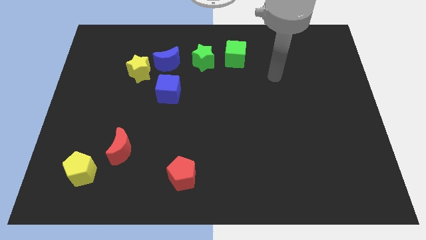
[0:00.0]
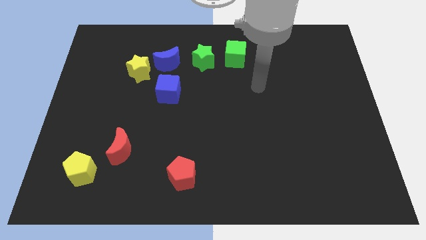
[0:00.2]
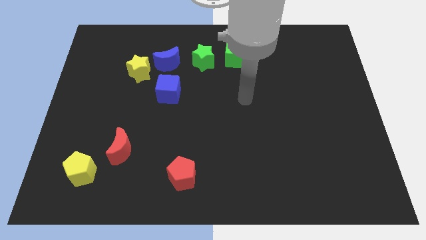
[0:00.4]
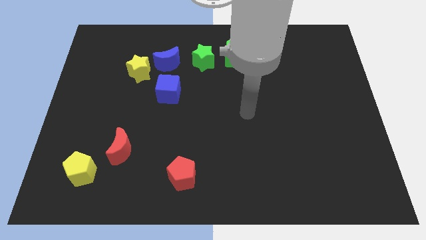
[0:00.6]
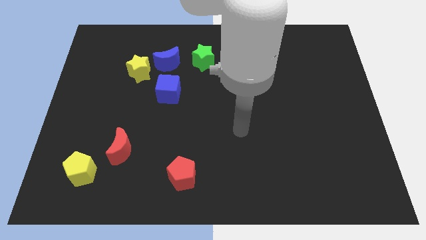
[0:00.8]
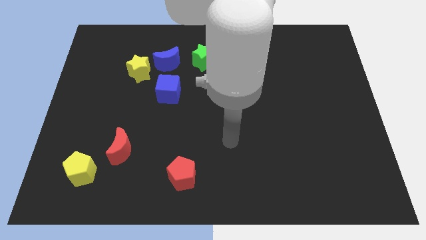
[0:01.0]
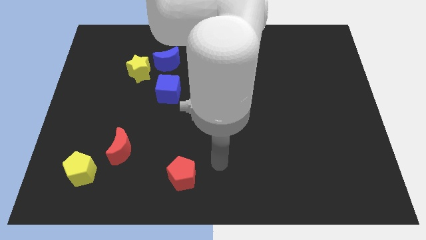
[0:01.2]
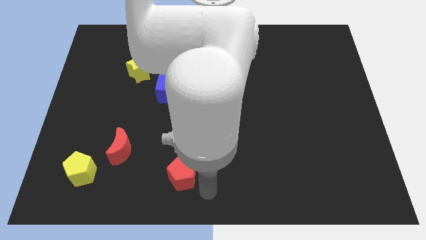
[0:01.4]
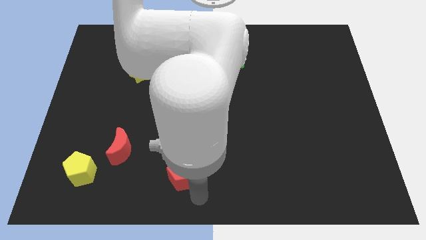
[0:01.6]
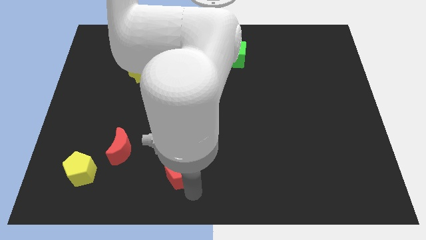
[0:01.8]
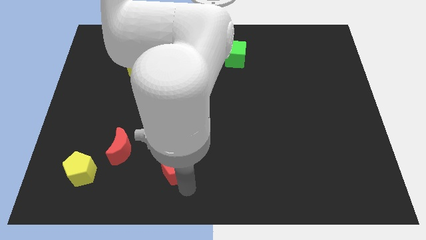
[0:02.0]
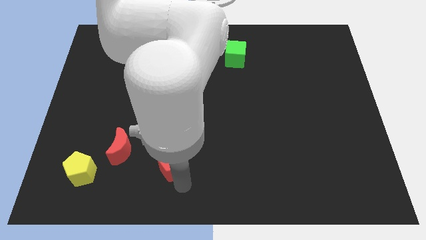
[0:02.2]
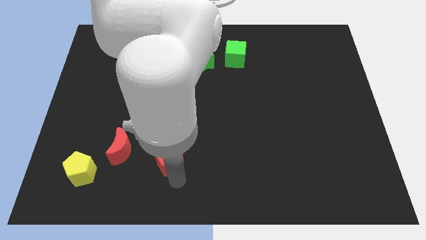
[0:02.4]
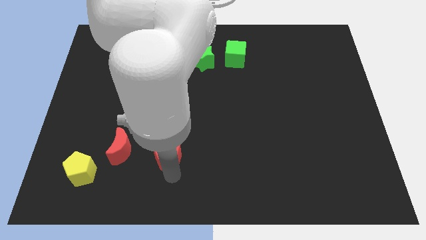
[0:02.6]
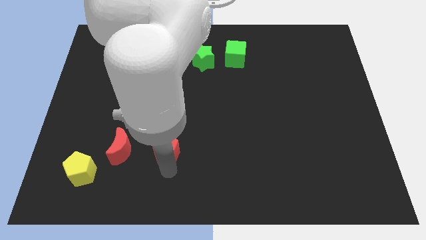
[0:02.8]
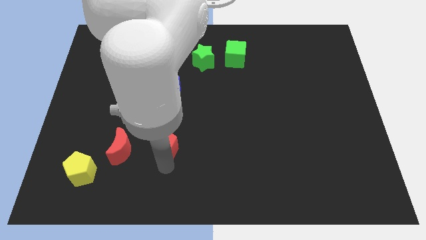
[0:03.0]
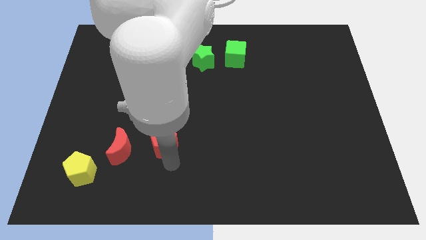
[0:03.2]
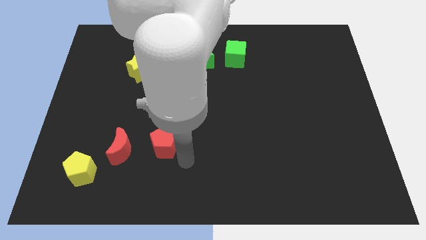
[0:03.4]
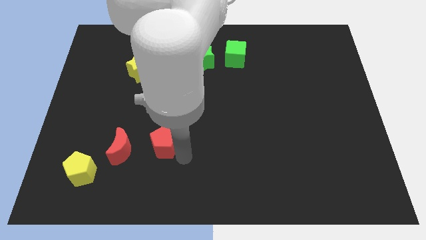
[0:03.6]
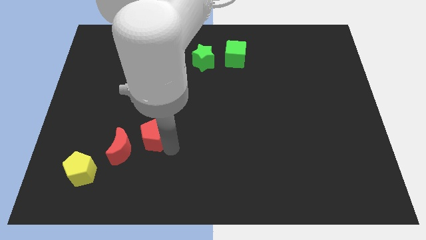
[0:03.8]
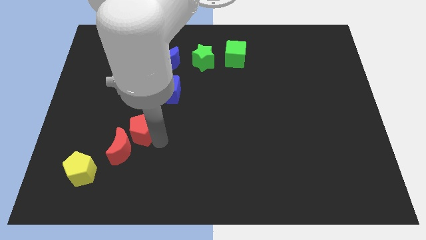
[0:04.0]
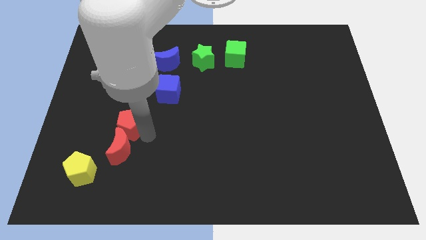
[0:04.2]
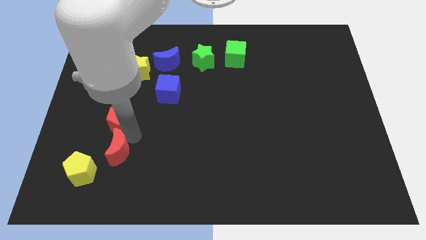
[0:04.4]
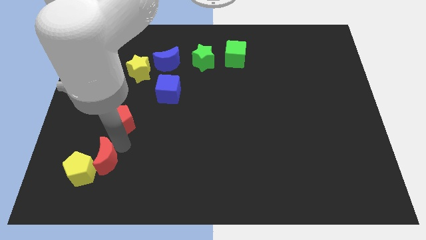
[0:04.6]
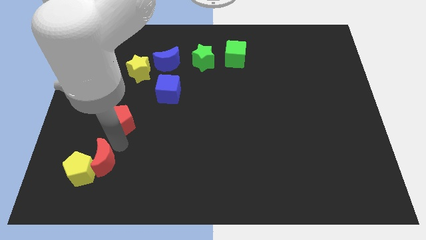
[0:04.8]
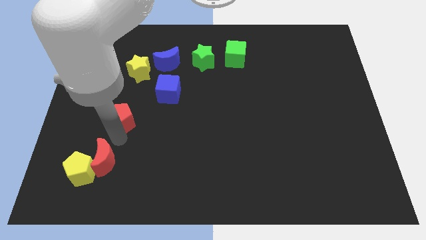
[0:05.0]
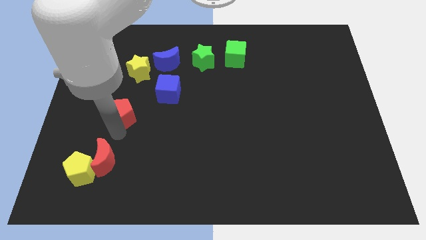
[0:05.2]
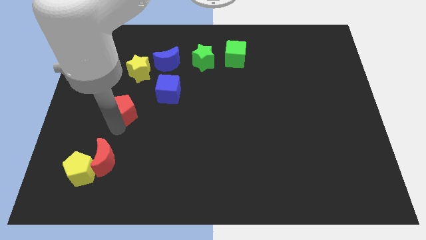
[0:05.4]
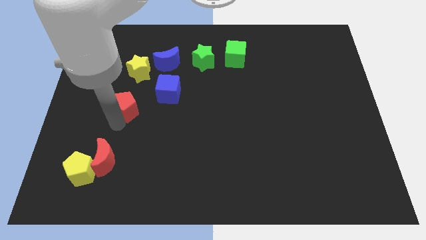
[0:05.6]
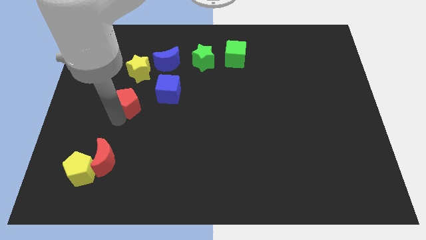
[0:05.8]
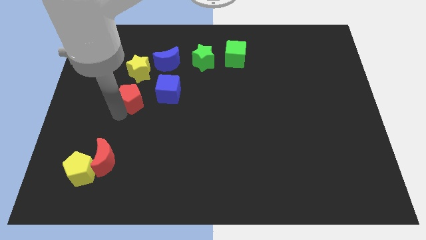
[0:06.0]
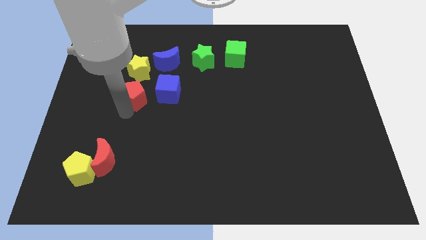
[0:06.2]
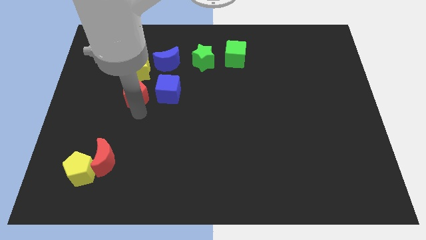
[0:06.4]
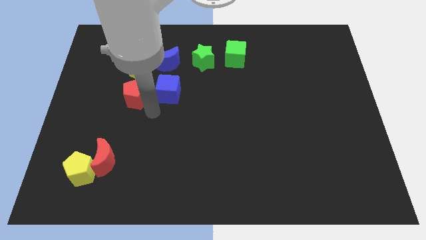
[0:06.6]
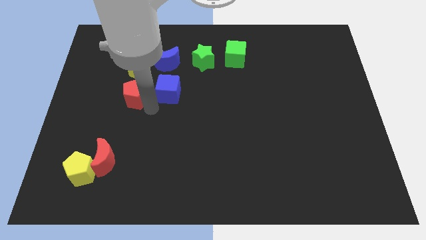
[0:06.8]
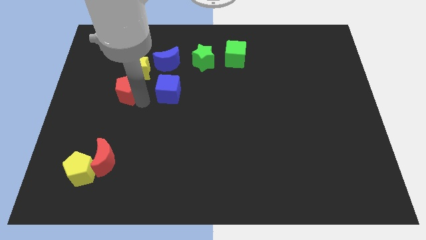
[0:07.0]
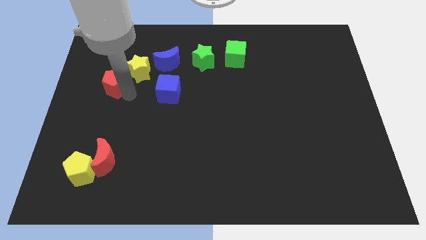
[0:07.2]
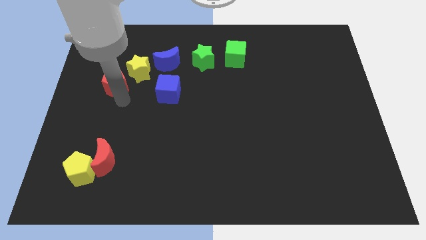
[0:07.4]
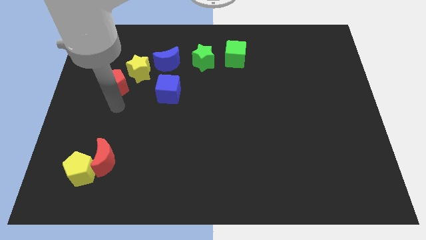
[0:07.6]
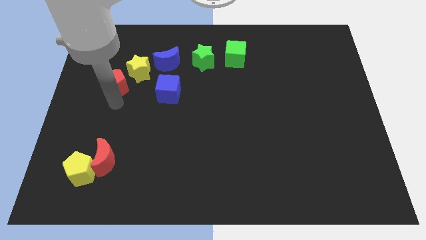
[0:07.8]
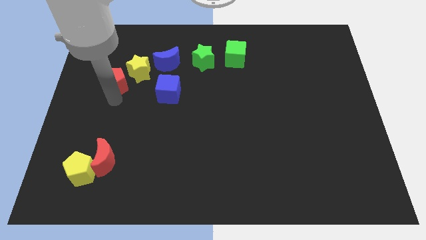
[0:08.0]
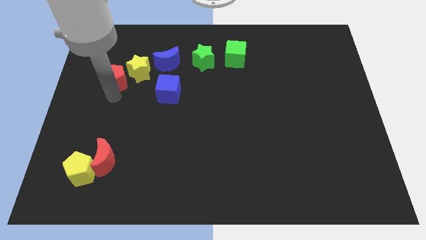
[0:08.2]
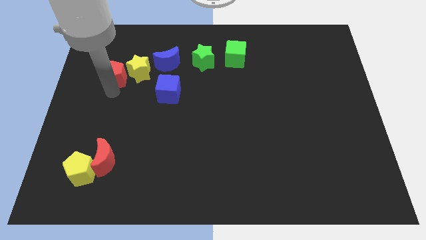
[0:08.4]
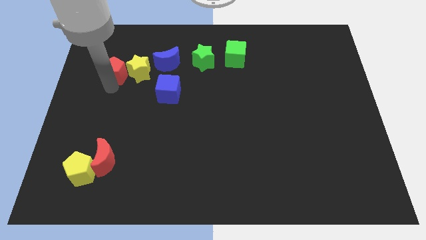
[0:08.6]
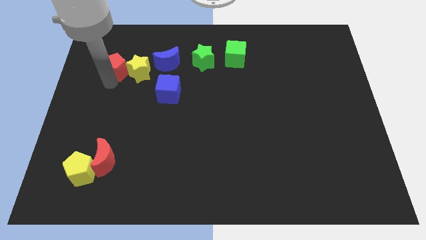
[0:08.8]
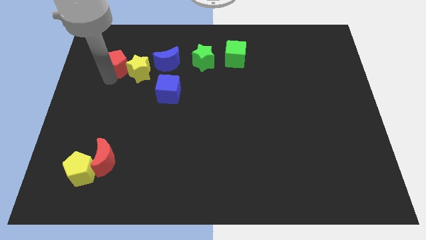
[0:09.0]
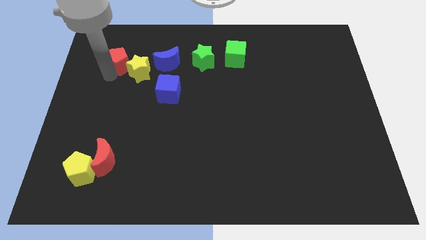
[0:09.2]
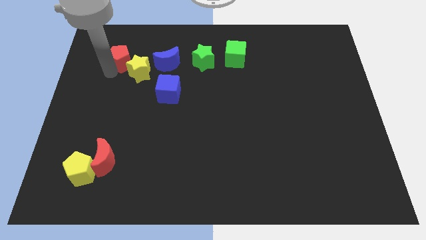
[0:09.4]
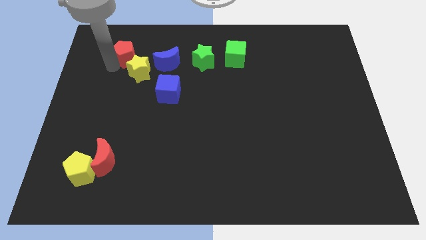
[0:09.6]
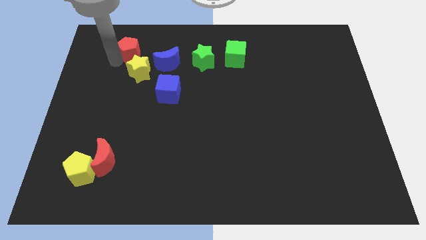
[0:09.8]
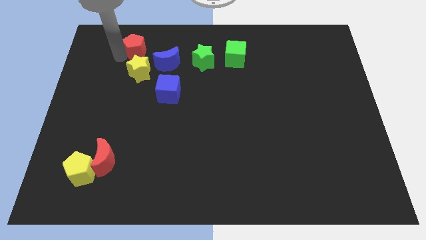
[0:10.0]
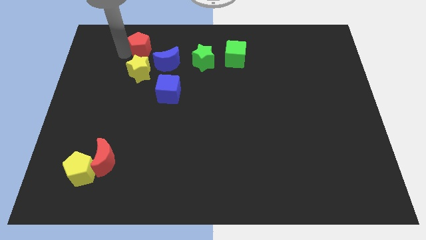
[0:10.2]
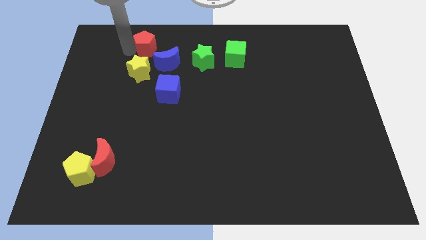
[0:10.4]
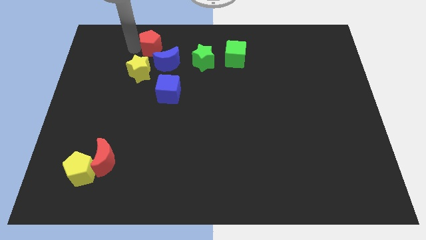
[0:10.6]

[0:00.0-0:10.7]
move the red pentagon to the top right of the yellow star

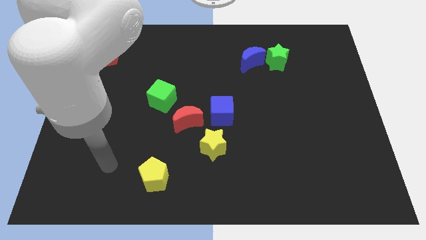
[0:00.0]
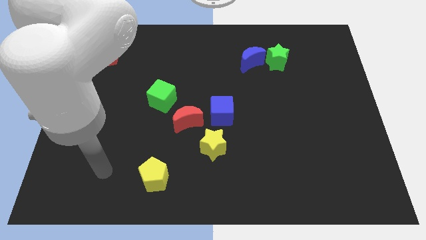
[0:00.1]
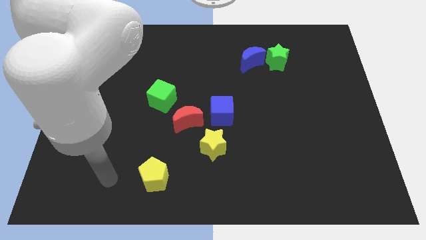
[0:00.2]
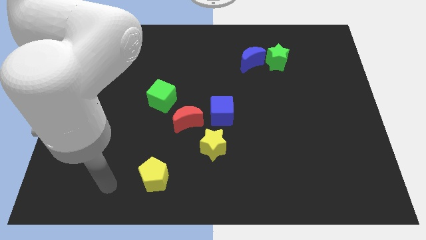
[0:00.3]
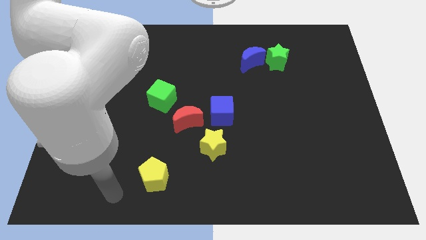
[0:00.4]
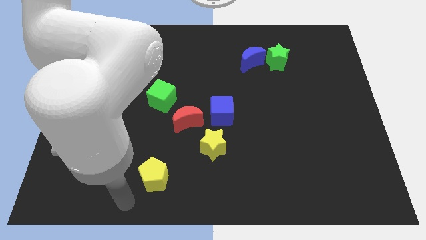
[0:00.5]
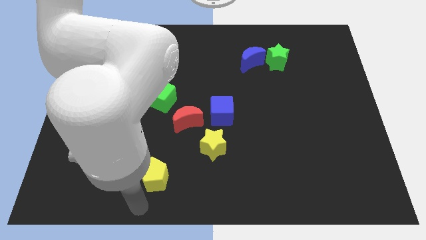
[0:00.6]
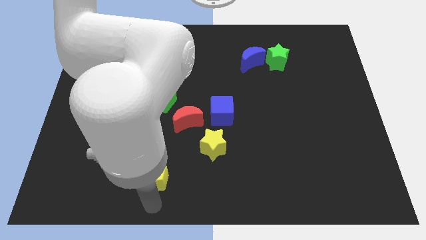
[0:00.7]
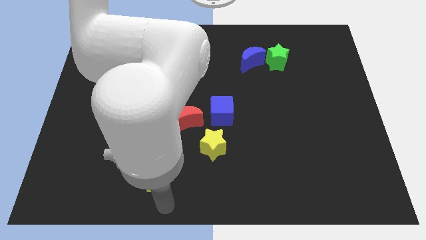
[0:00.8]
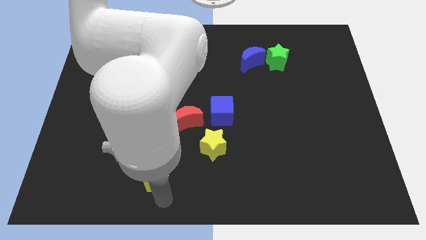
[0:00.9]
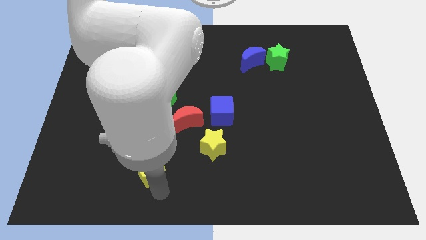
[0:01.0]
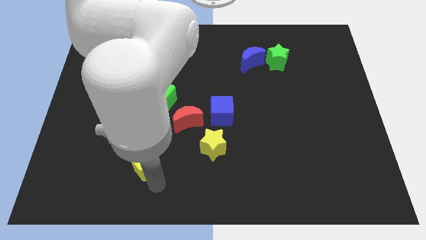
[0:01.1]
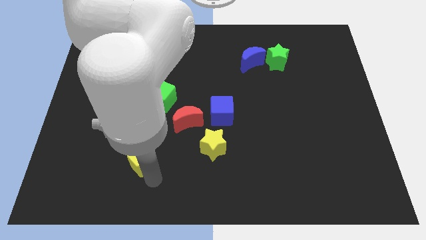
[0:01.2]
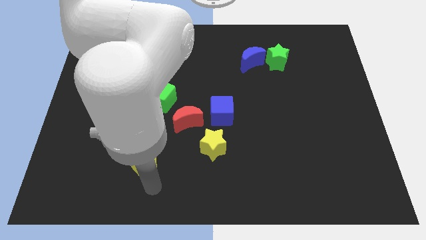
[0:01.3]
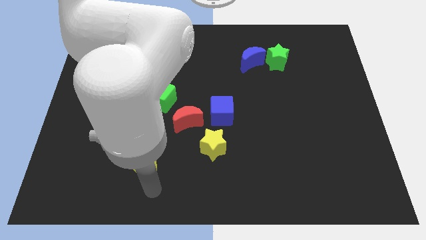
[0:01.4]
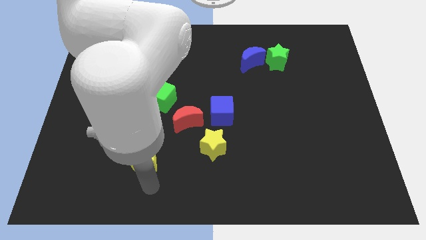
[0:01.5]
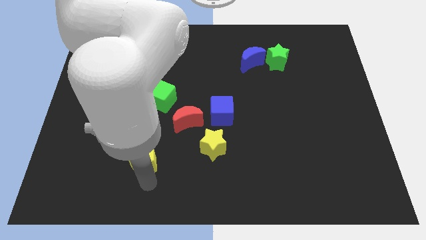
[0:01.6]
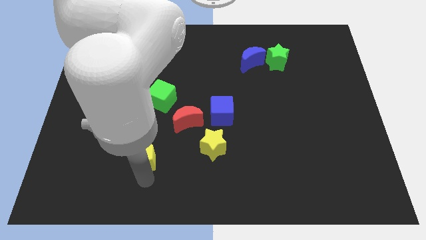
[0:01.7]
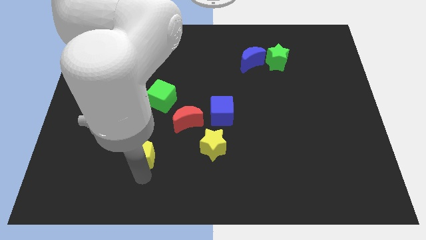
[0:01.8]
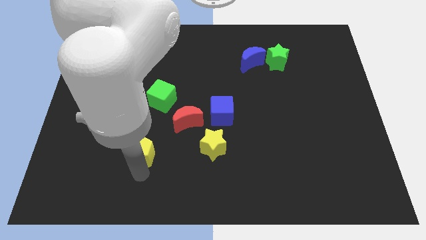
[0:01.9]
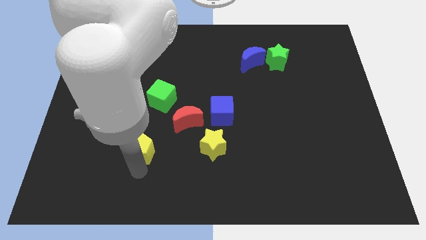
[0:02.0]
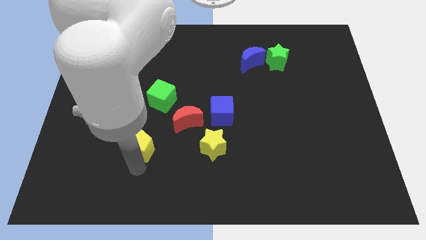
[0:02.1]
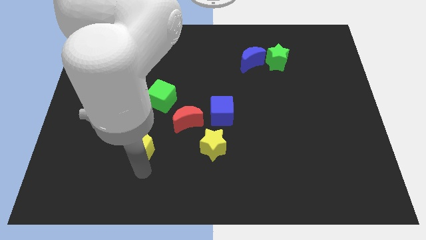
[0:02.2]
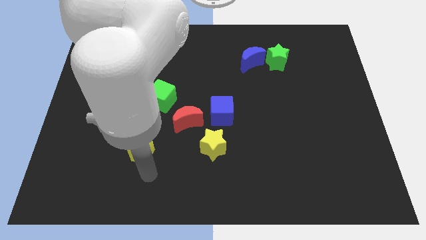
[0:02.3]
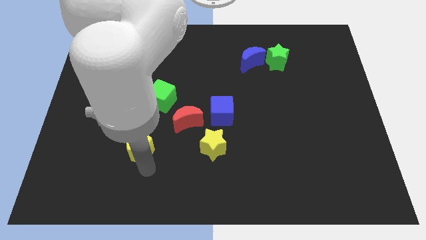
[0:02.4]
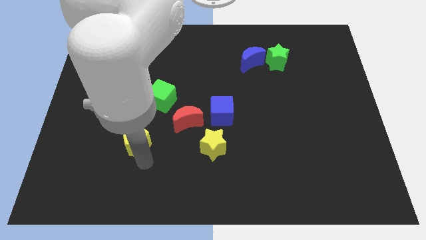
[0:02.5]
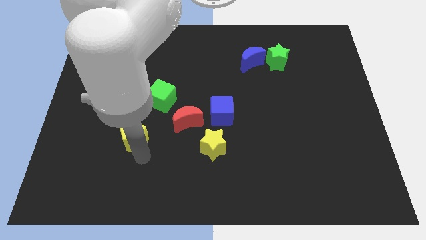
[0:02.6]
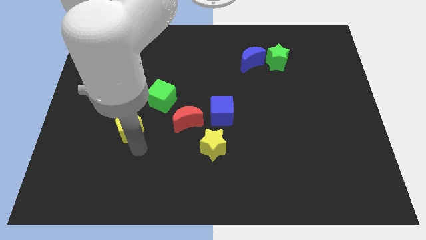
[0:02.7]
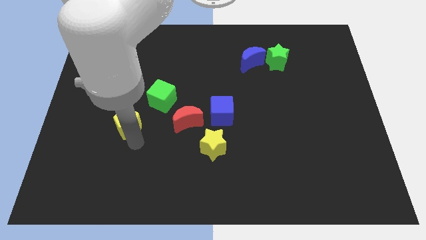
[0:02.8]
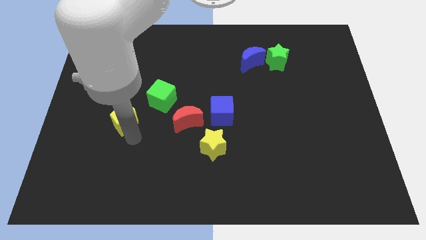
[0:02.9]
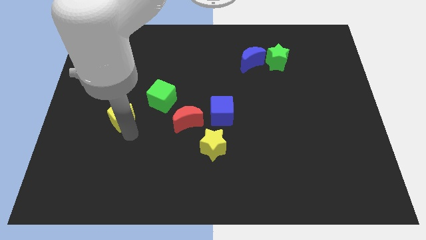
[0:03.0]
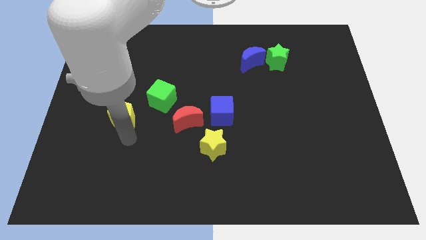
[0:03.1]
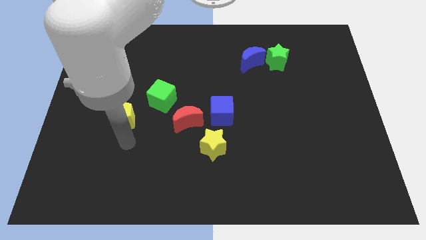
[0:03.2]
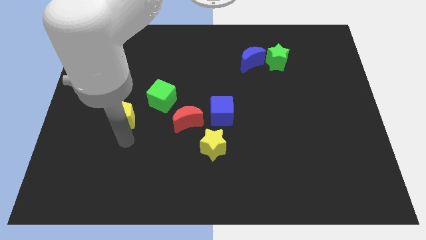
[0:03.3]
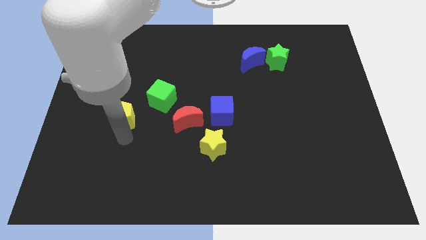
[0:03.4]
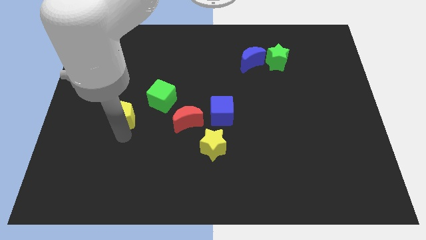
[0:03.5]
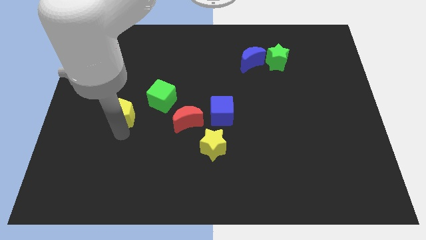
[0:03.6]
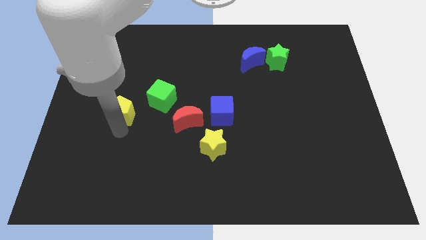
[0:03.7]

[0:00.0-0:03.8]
move the yellow pentagon left of the green cube
